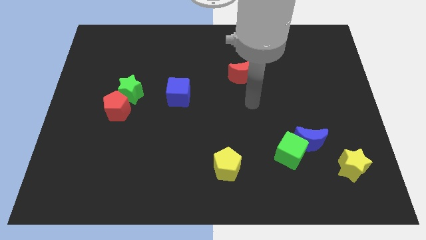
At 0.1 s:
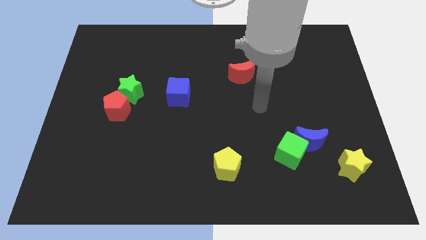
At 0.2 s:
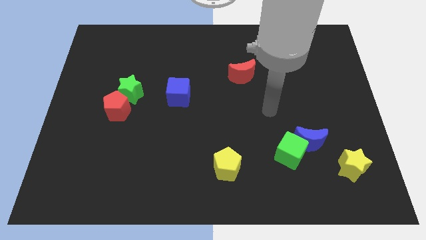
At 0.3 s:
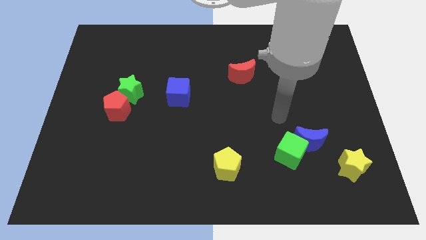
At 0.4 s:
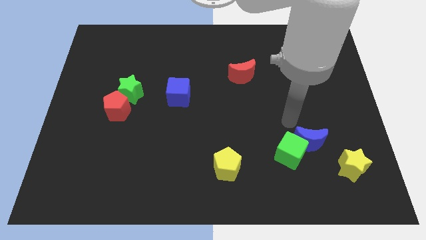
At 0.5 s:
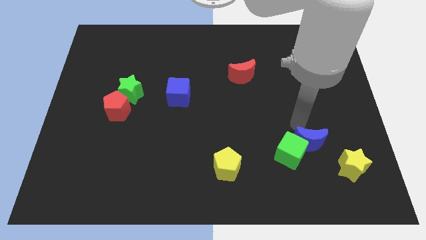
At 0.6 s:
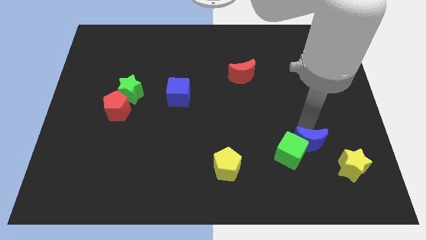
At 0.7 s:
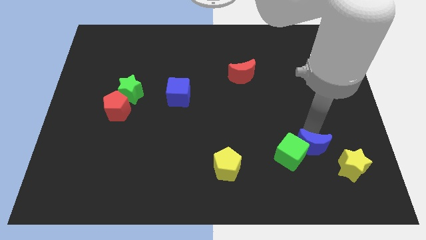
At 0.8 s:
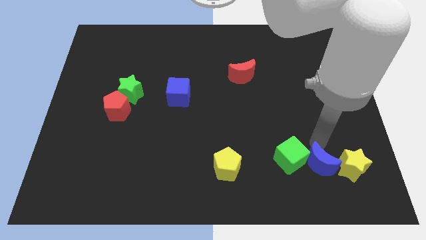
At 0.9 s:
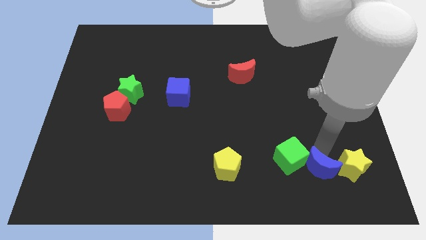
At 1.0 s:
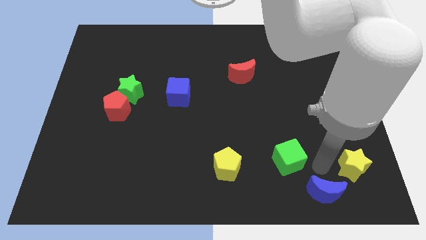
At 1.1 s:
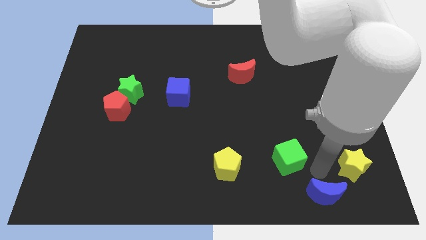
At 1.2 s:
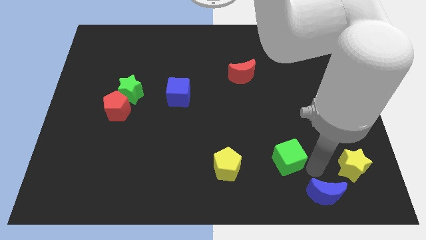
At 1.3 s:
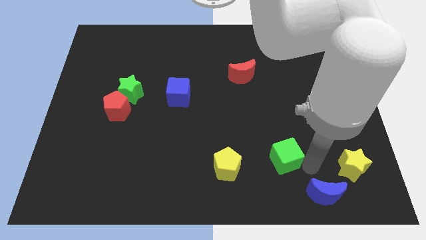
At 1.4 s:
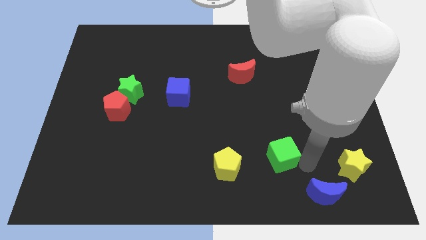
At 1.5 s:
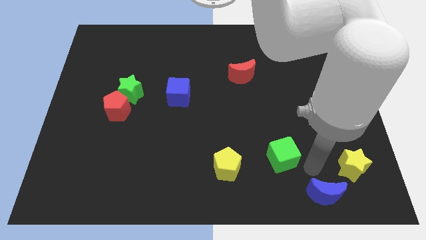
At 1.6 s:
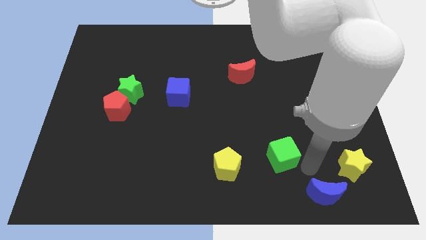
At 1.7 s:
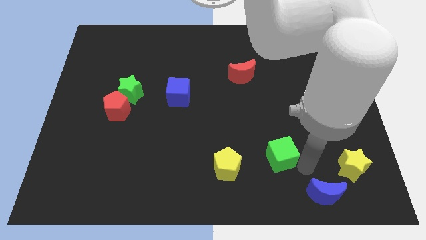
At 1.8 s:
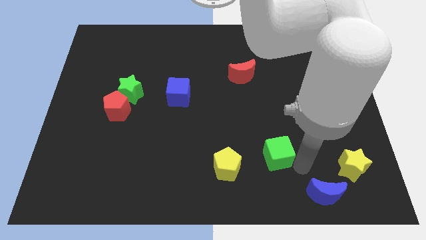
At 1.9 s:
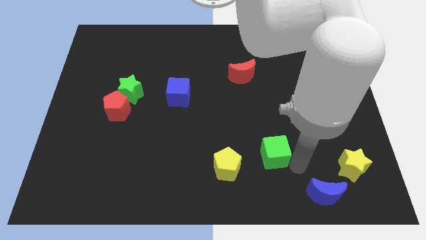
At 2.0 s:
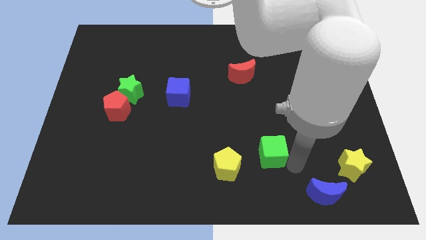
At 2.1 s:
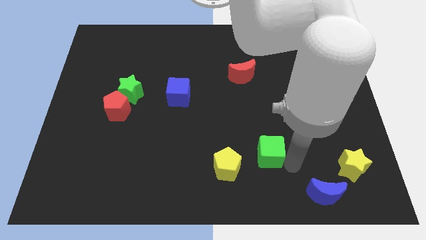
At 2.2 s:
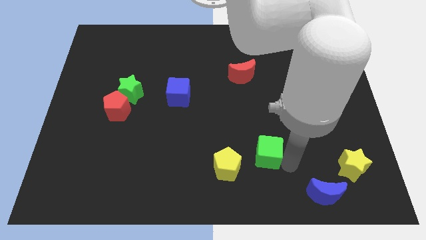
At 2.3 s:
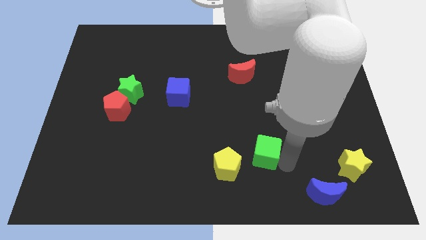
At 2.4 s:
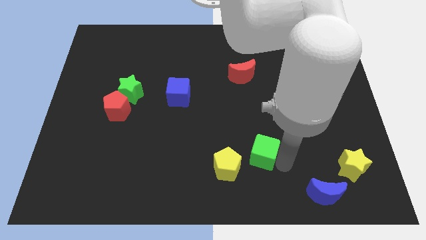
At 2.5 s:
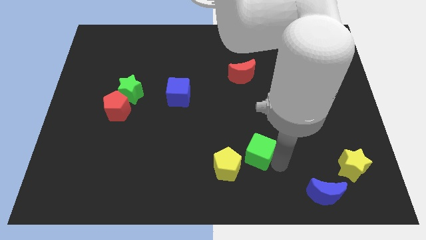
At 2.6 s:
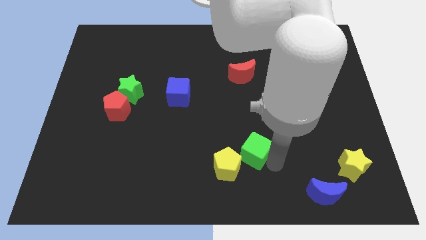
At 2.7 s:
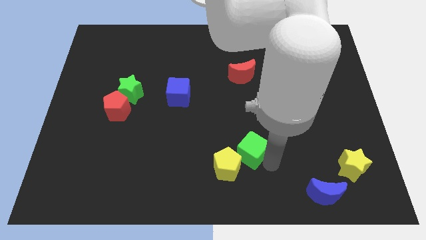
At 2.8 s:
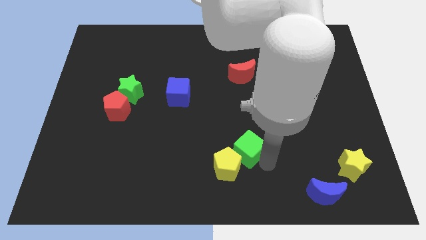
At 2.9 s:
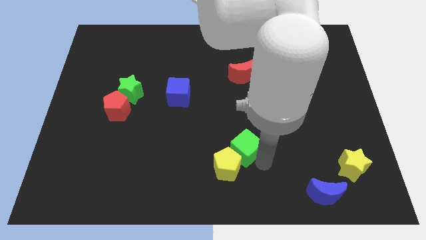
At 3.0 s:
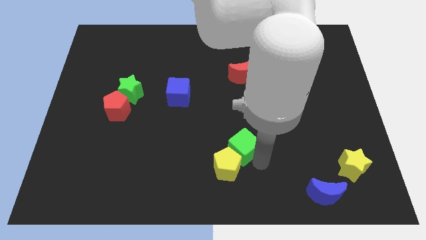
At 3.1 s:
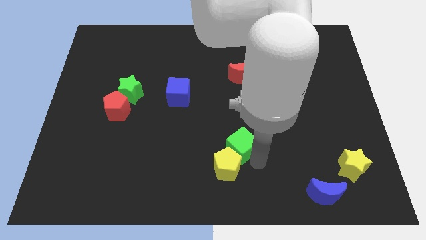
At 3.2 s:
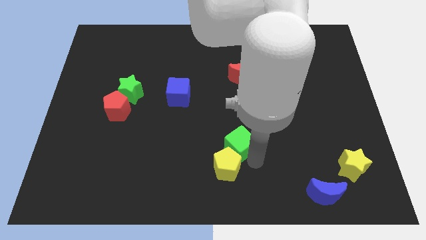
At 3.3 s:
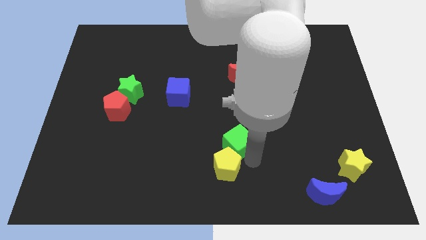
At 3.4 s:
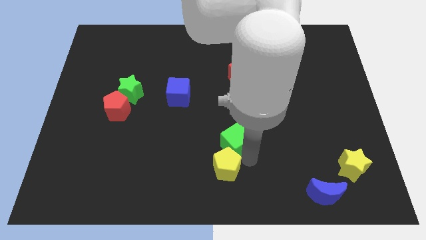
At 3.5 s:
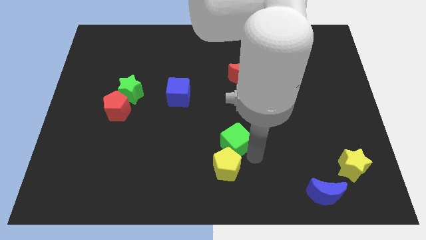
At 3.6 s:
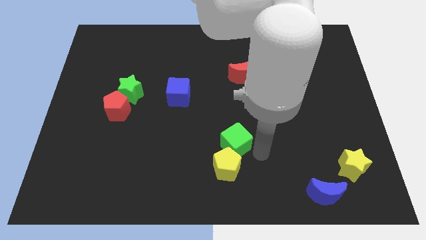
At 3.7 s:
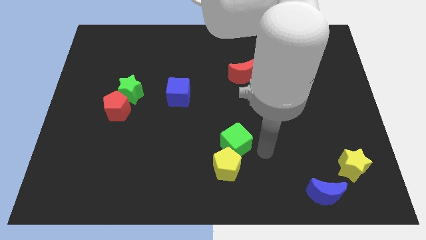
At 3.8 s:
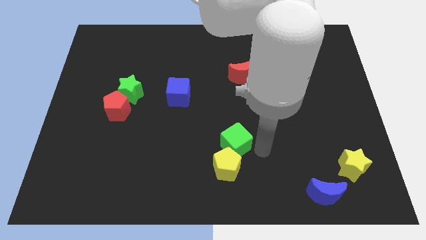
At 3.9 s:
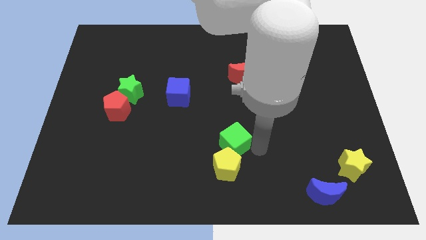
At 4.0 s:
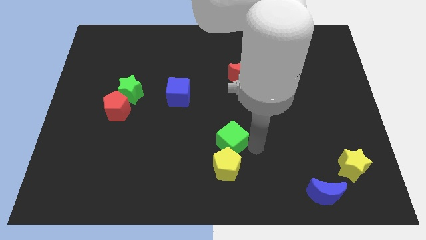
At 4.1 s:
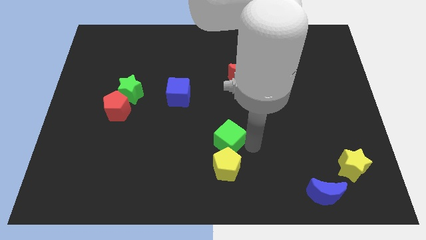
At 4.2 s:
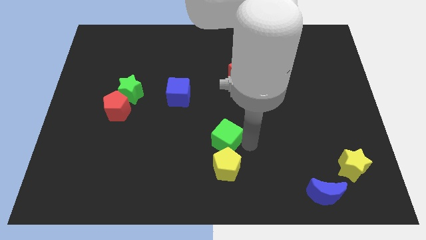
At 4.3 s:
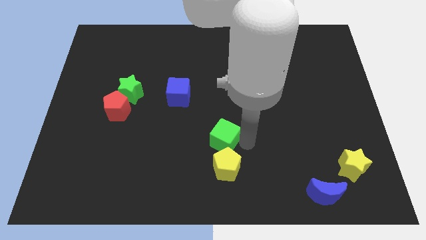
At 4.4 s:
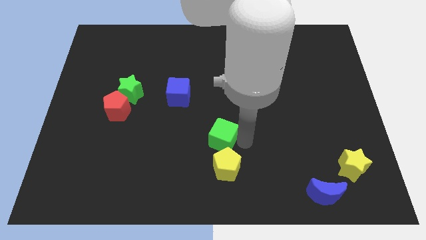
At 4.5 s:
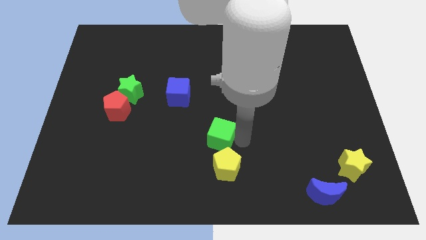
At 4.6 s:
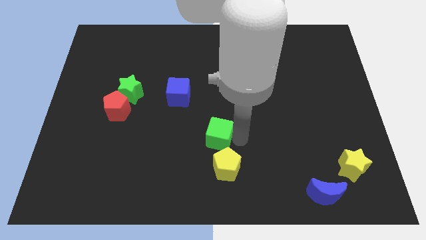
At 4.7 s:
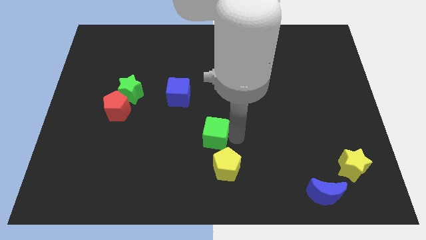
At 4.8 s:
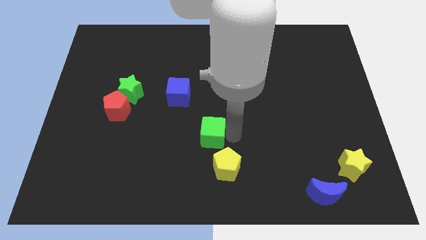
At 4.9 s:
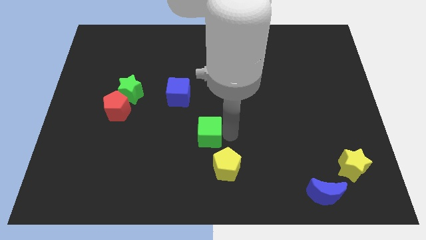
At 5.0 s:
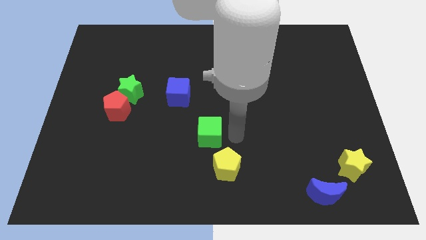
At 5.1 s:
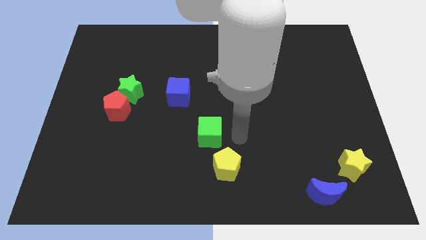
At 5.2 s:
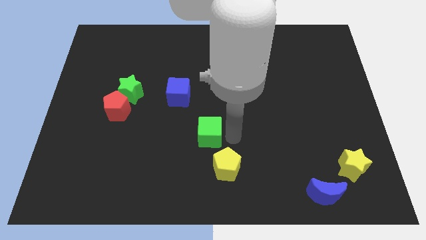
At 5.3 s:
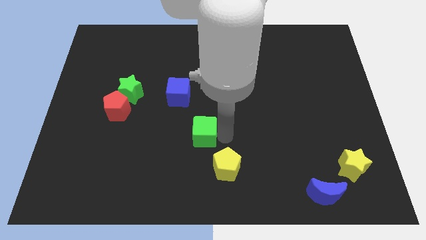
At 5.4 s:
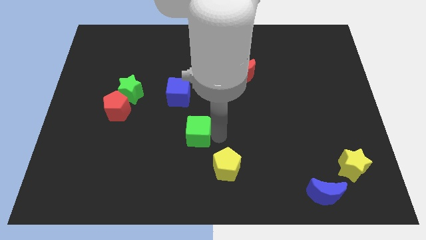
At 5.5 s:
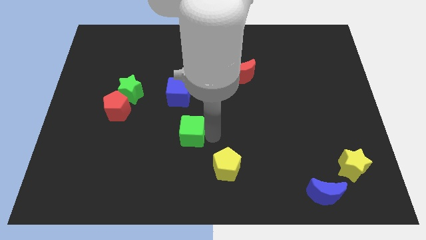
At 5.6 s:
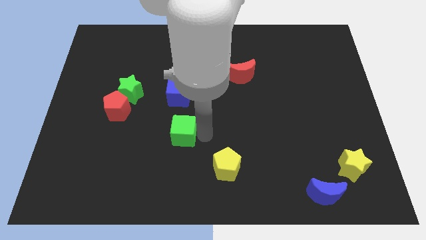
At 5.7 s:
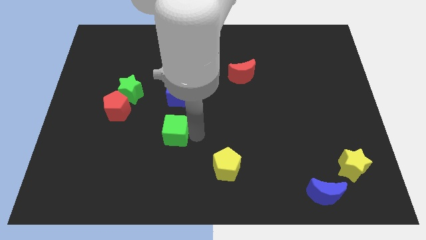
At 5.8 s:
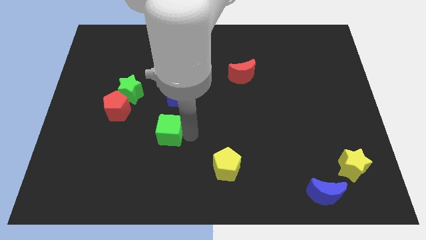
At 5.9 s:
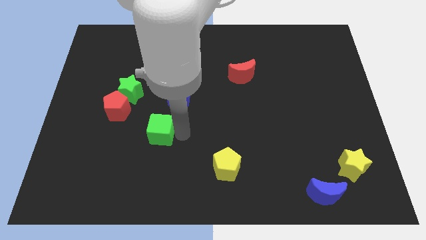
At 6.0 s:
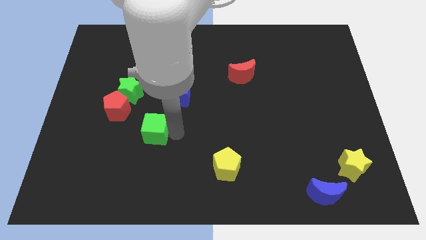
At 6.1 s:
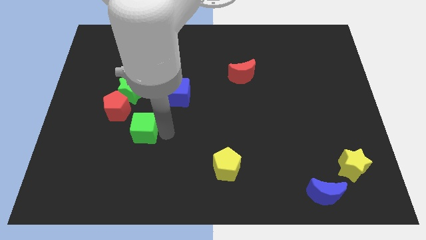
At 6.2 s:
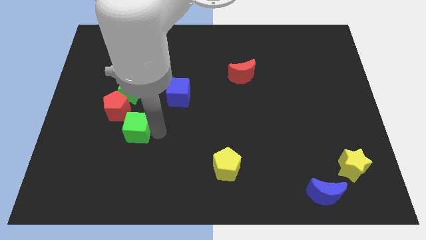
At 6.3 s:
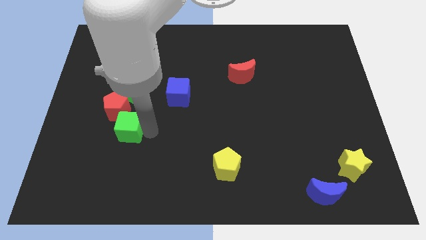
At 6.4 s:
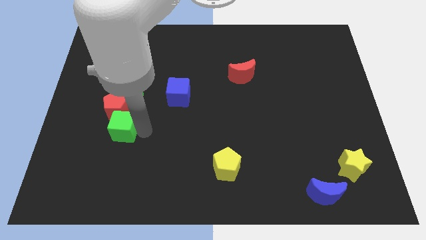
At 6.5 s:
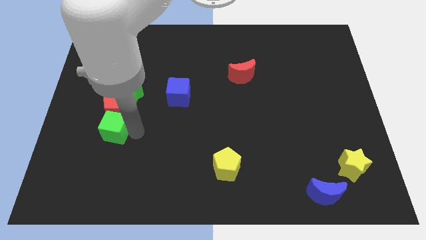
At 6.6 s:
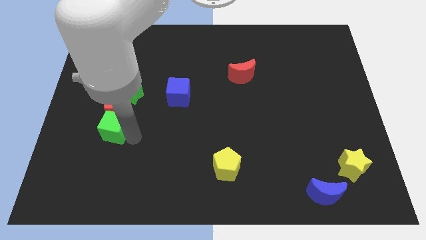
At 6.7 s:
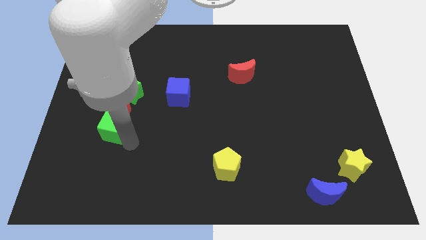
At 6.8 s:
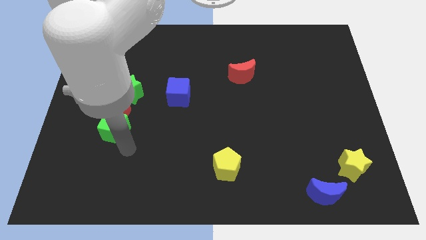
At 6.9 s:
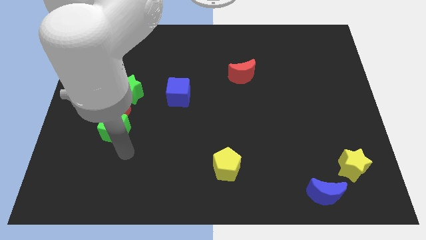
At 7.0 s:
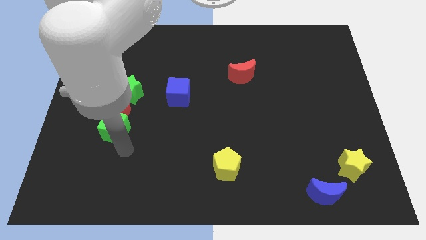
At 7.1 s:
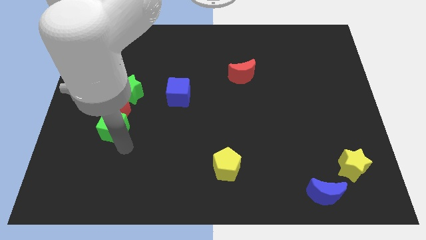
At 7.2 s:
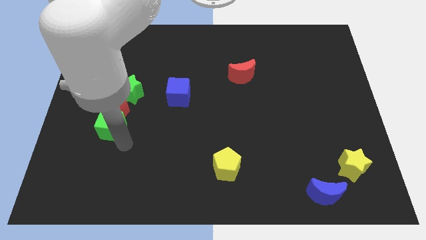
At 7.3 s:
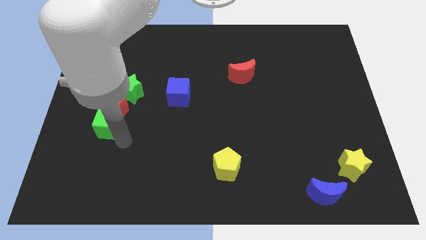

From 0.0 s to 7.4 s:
push the green cube to the bottom left of the green star

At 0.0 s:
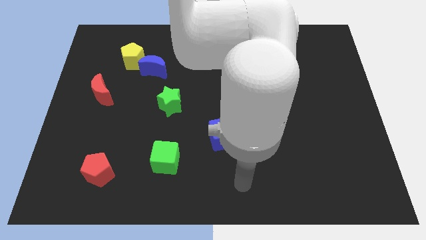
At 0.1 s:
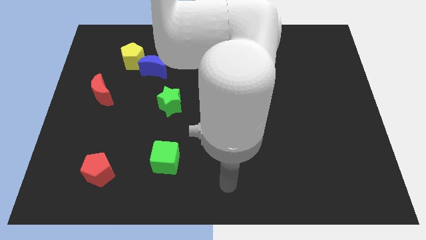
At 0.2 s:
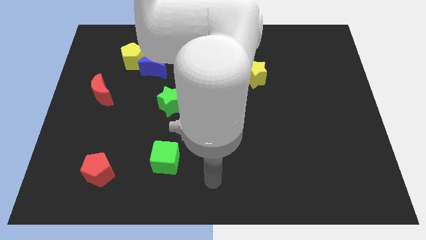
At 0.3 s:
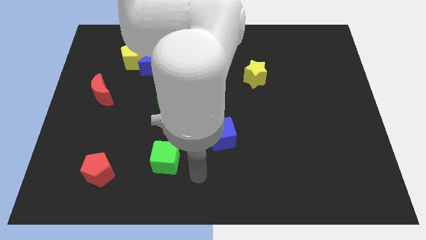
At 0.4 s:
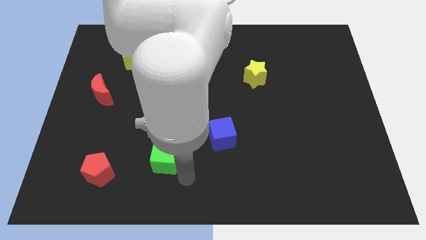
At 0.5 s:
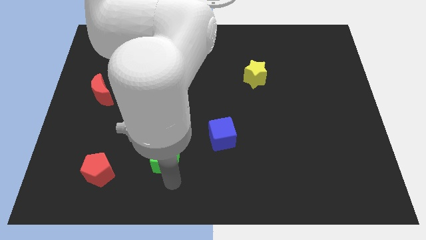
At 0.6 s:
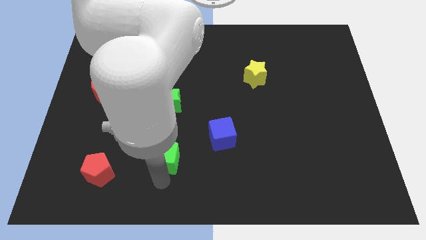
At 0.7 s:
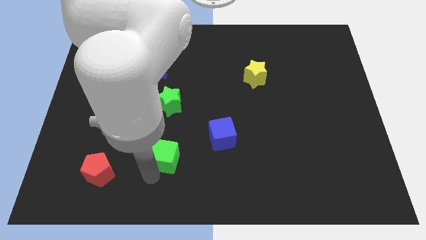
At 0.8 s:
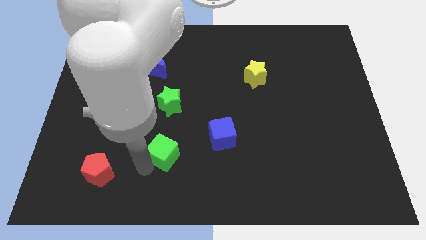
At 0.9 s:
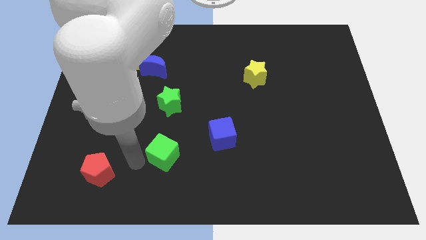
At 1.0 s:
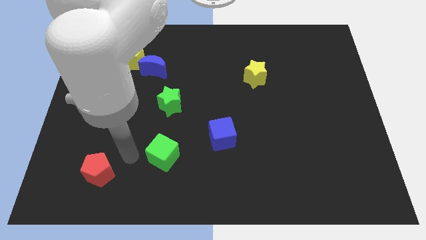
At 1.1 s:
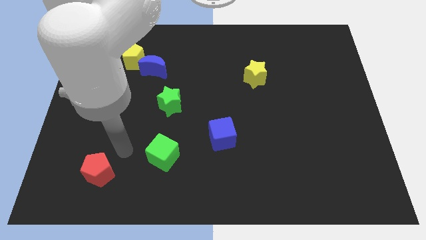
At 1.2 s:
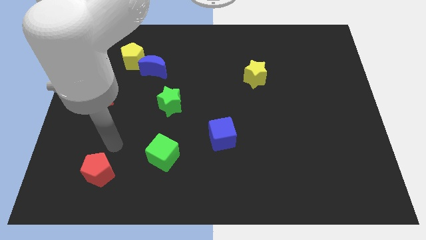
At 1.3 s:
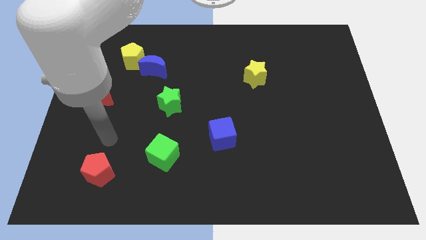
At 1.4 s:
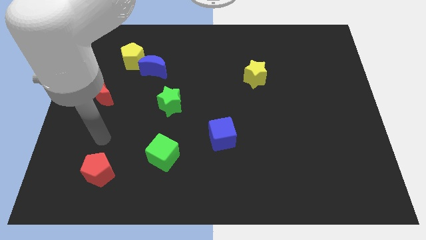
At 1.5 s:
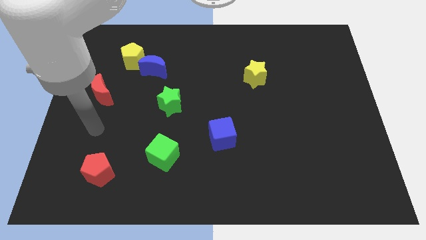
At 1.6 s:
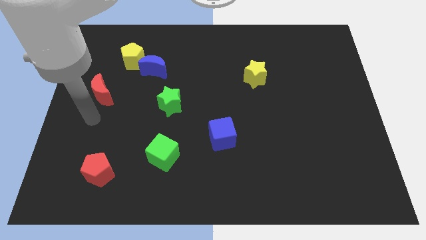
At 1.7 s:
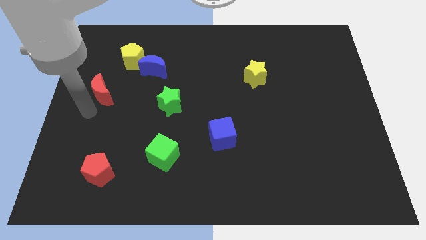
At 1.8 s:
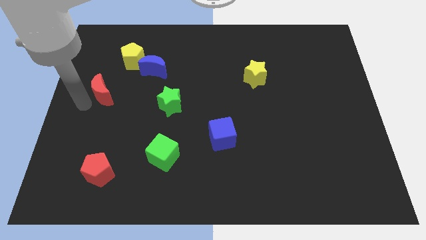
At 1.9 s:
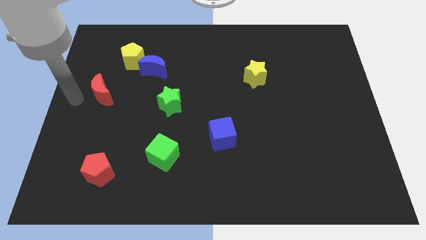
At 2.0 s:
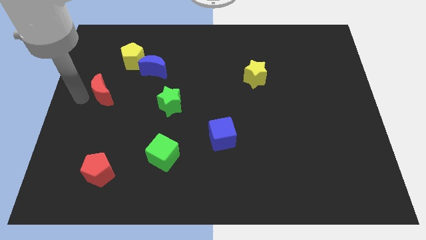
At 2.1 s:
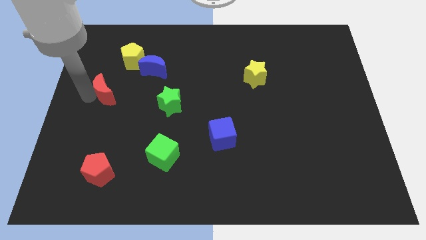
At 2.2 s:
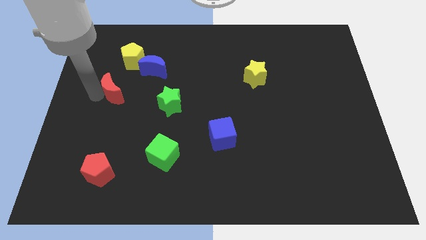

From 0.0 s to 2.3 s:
put the red moon to the bottom side of the yellow pentagon
